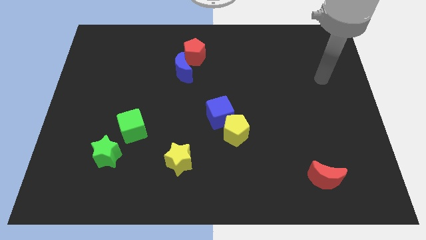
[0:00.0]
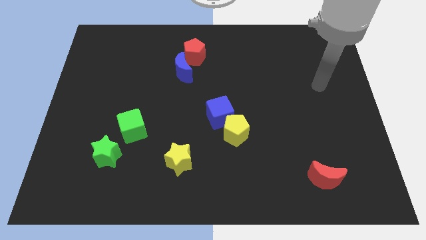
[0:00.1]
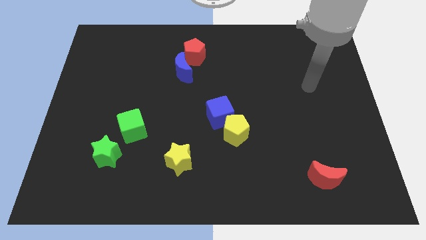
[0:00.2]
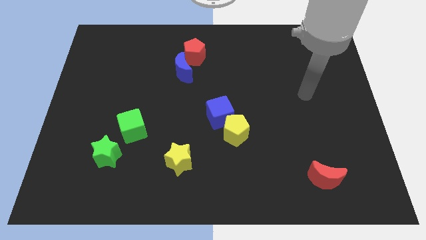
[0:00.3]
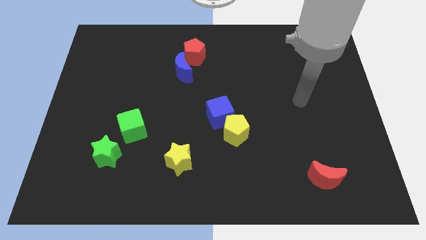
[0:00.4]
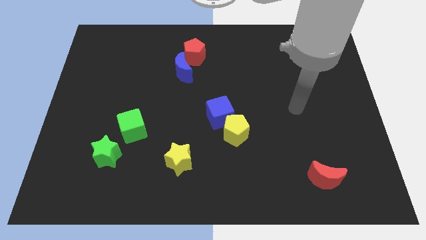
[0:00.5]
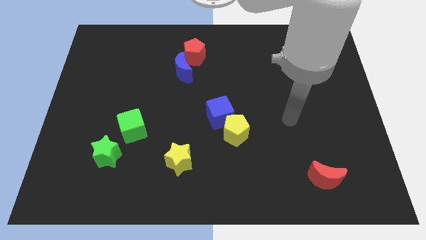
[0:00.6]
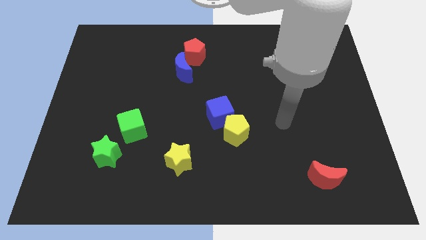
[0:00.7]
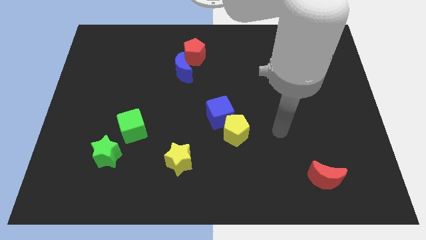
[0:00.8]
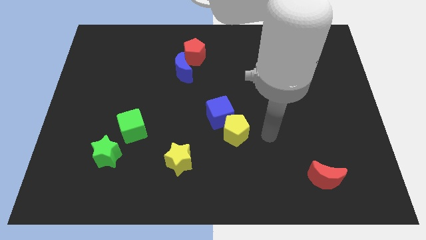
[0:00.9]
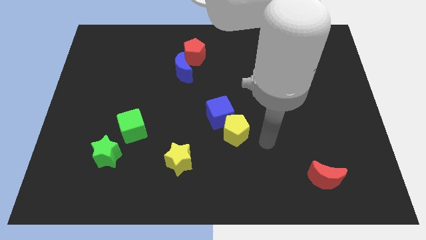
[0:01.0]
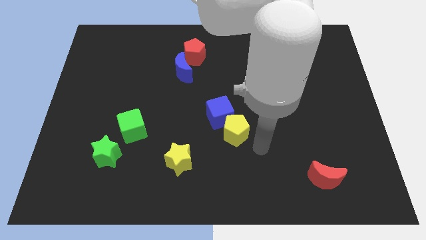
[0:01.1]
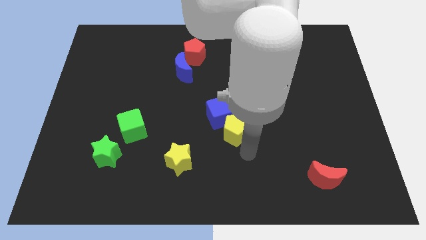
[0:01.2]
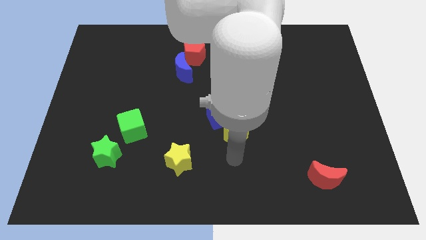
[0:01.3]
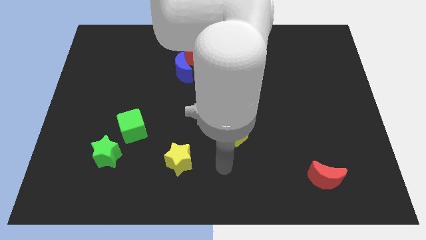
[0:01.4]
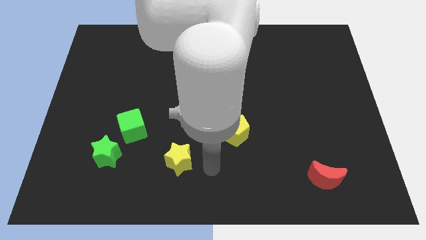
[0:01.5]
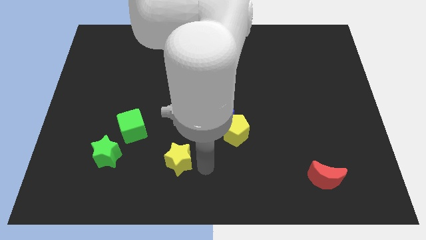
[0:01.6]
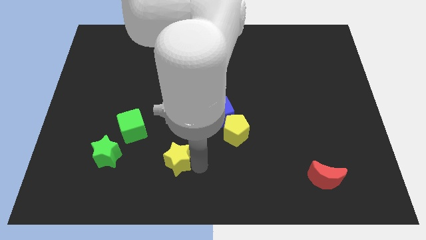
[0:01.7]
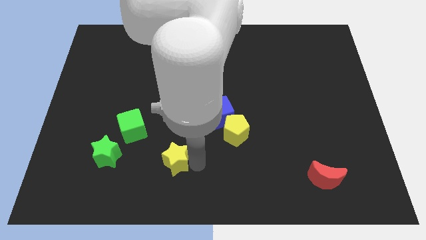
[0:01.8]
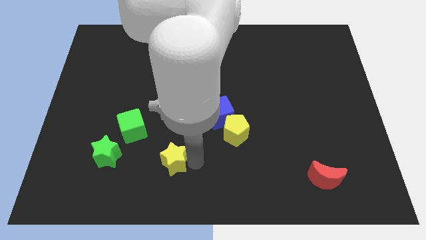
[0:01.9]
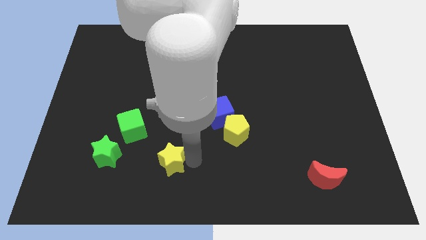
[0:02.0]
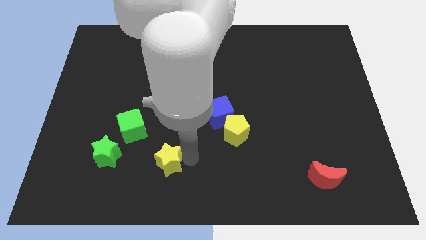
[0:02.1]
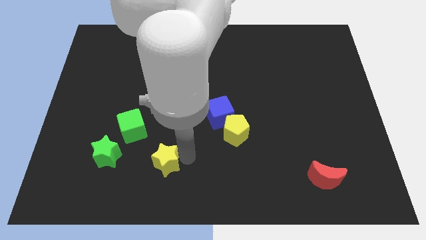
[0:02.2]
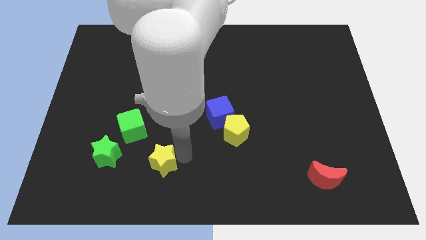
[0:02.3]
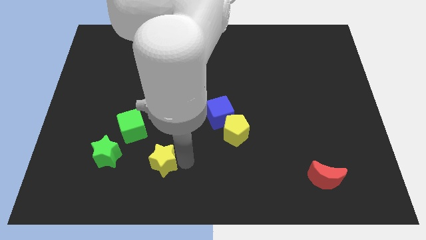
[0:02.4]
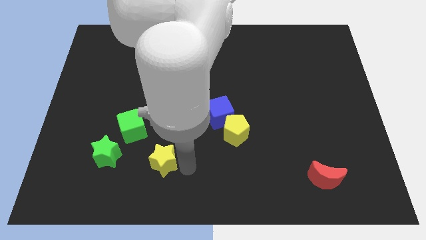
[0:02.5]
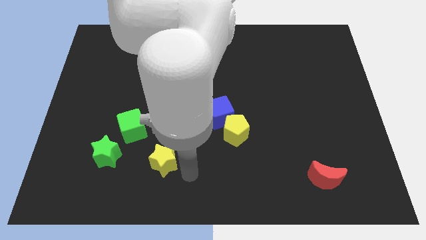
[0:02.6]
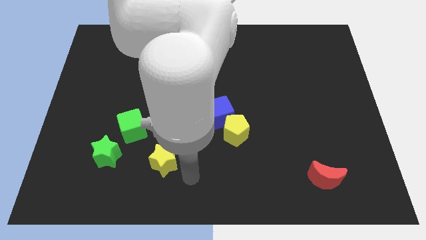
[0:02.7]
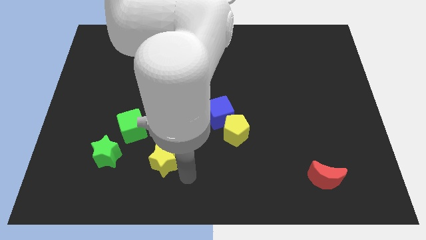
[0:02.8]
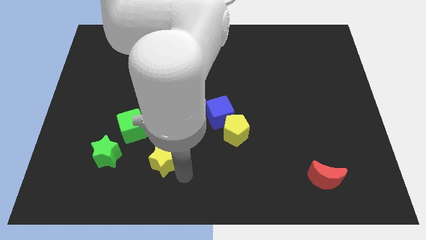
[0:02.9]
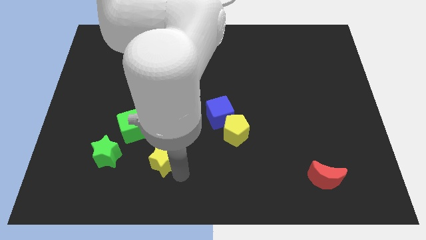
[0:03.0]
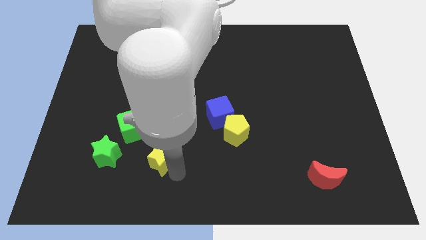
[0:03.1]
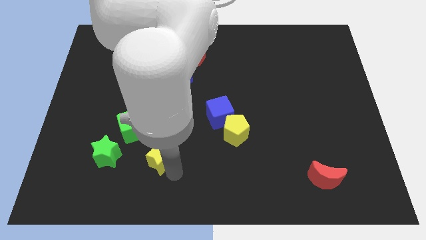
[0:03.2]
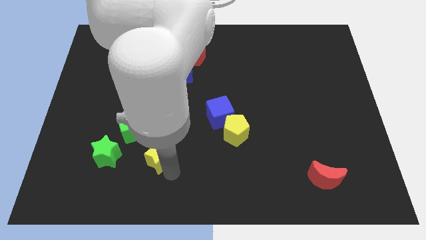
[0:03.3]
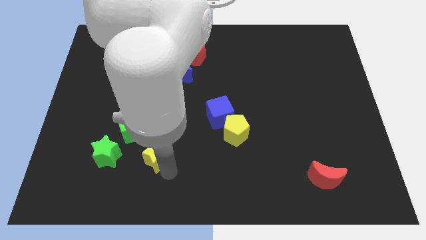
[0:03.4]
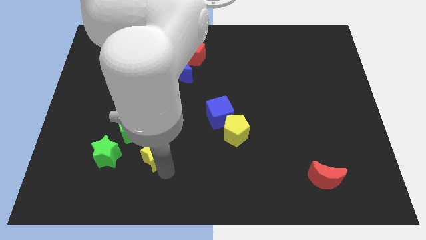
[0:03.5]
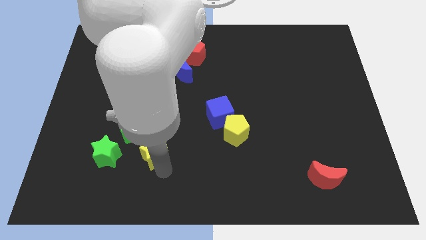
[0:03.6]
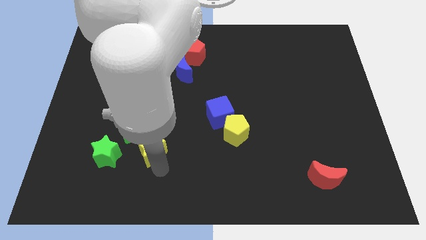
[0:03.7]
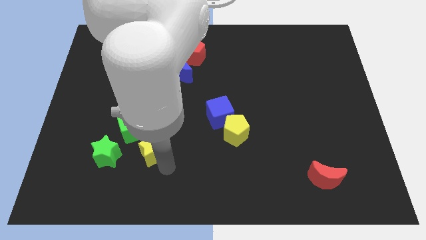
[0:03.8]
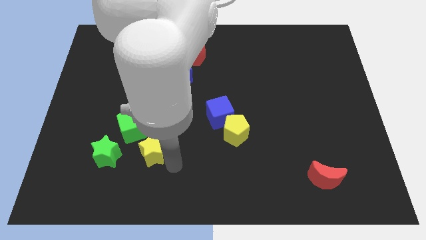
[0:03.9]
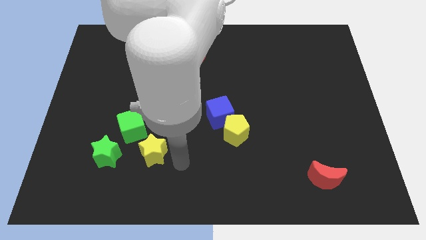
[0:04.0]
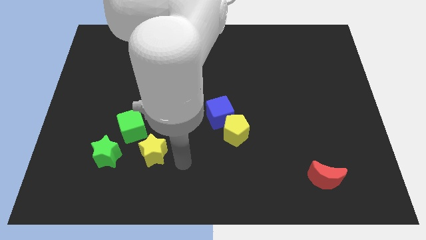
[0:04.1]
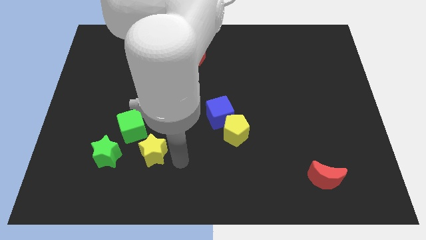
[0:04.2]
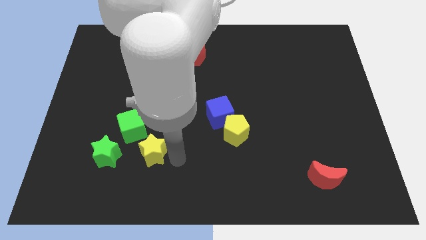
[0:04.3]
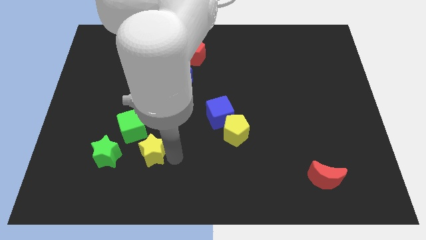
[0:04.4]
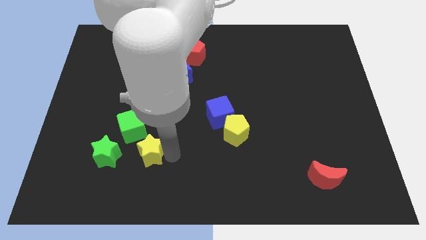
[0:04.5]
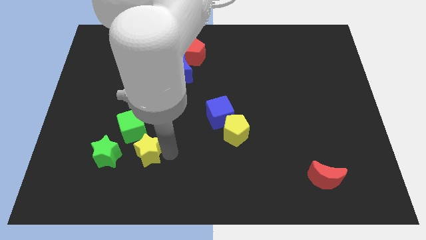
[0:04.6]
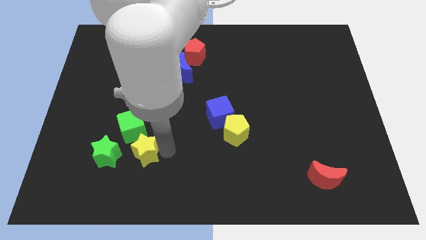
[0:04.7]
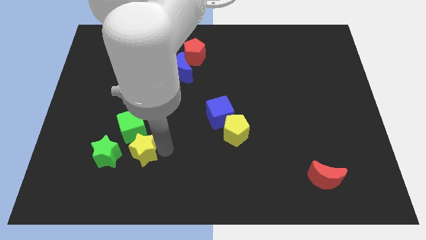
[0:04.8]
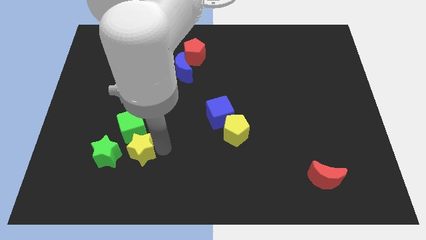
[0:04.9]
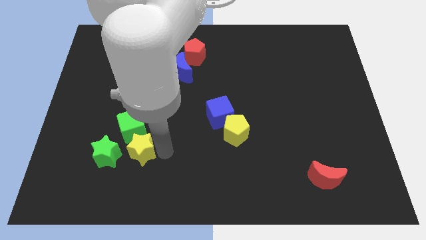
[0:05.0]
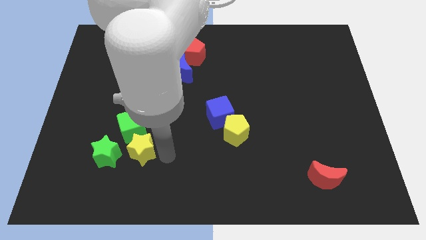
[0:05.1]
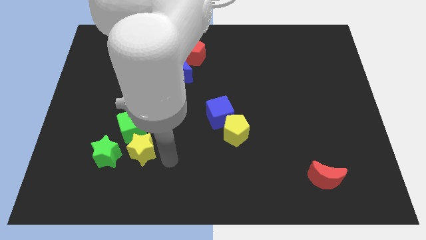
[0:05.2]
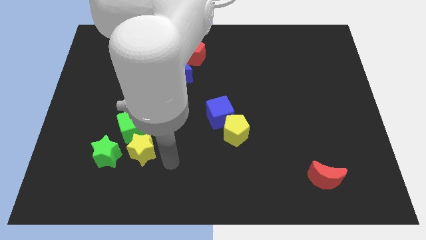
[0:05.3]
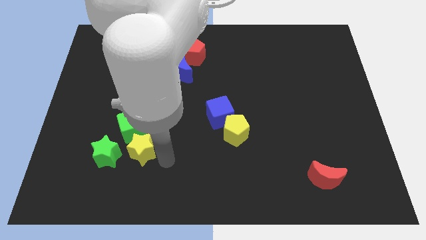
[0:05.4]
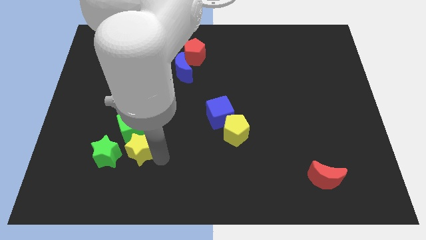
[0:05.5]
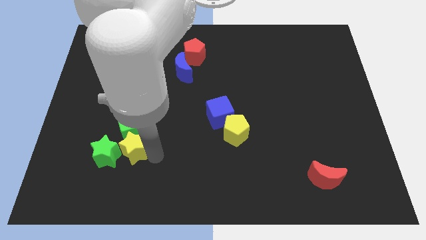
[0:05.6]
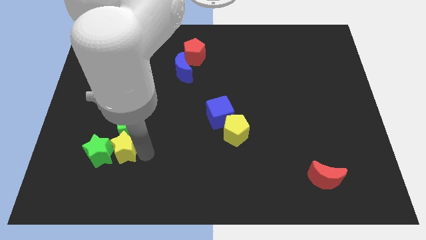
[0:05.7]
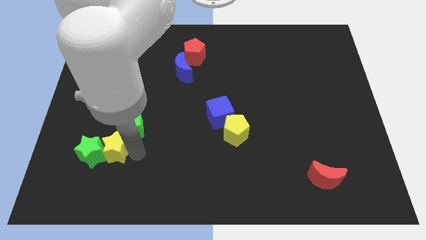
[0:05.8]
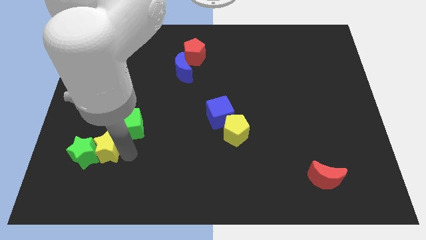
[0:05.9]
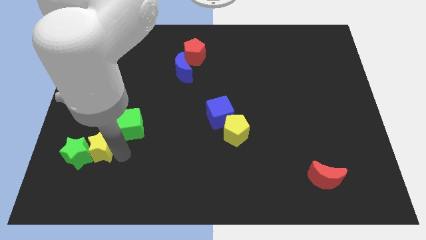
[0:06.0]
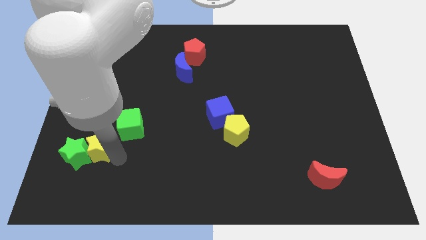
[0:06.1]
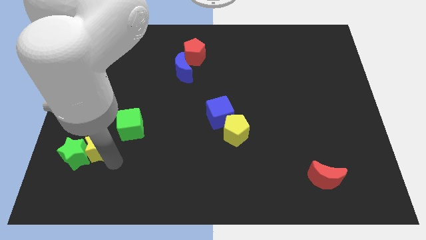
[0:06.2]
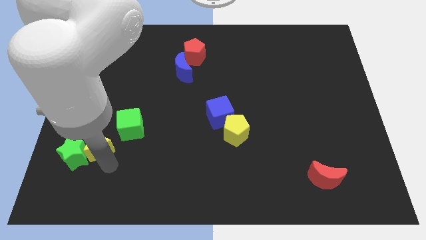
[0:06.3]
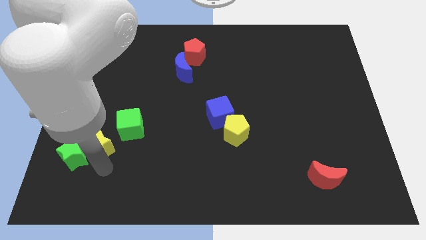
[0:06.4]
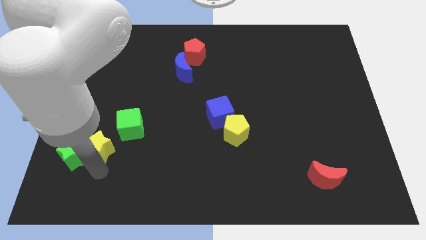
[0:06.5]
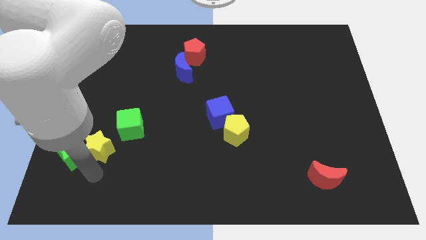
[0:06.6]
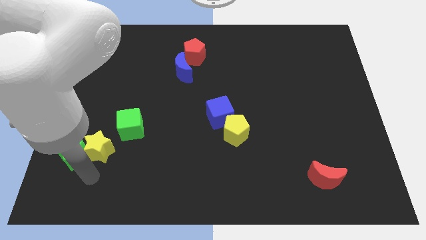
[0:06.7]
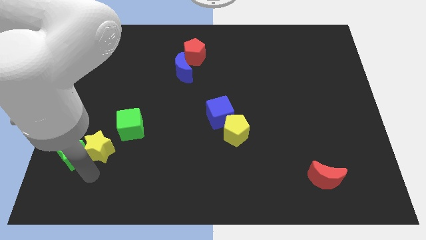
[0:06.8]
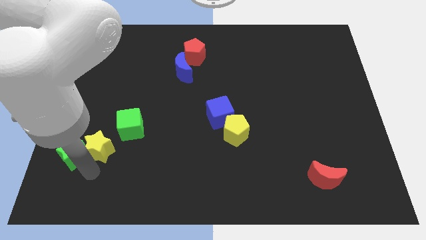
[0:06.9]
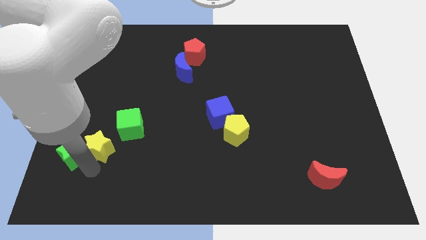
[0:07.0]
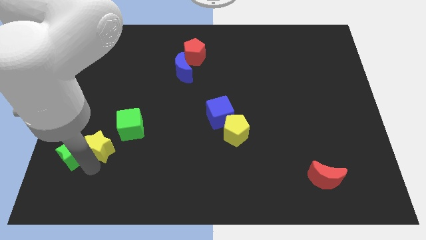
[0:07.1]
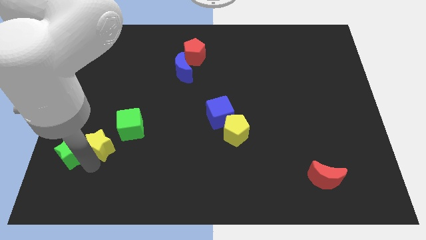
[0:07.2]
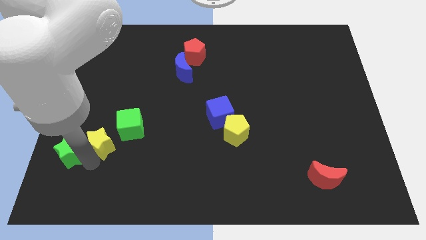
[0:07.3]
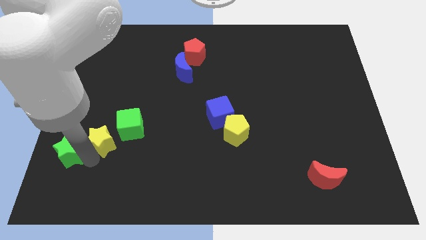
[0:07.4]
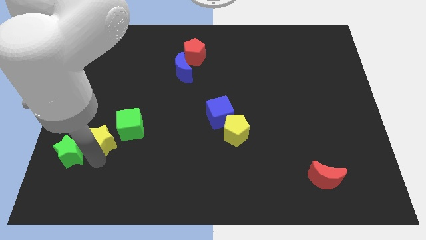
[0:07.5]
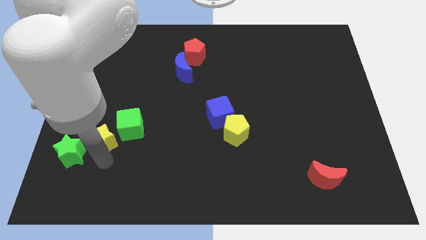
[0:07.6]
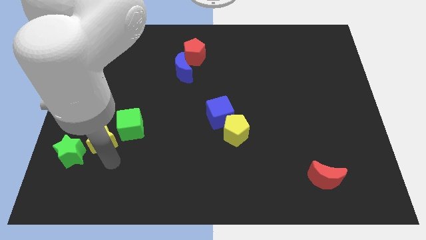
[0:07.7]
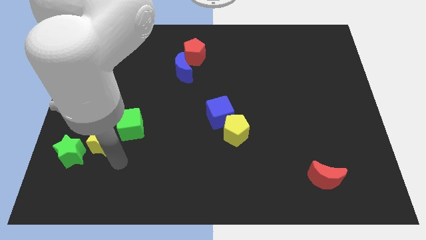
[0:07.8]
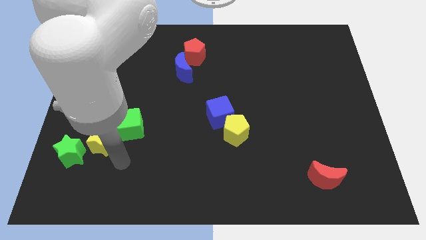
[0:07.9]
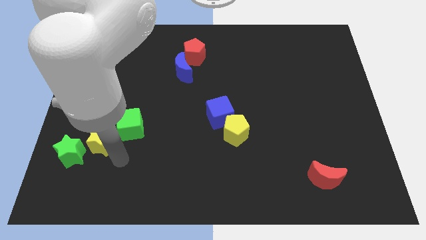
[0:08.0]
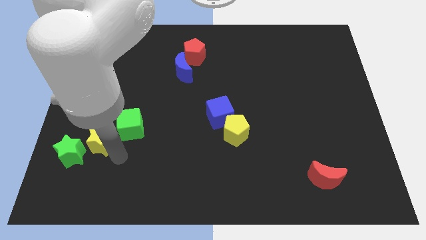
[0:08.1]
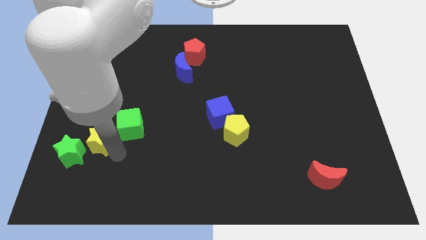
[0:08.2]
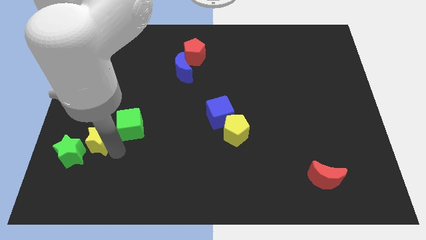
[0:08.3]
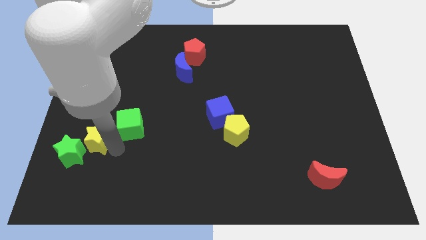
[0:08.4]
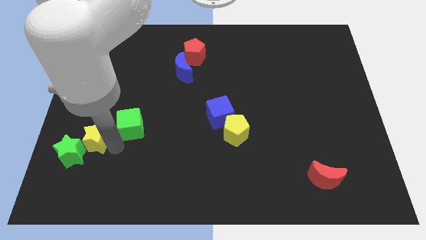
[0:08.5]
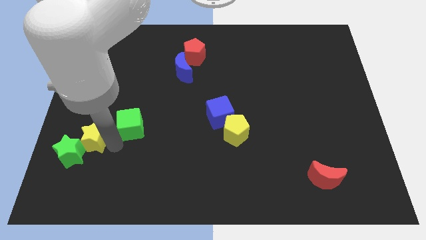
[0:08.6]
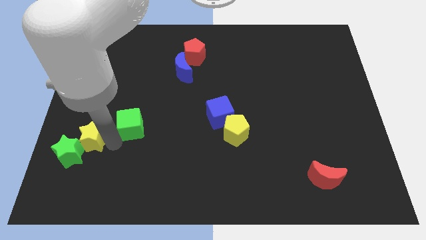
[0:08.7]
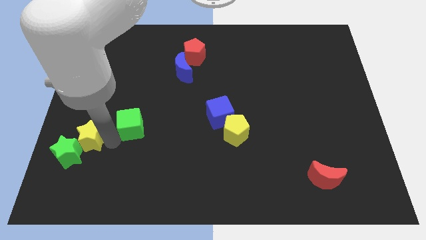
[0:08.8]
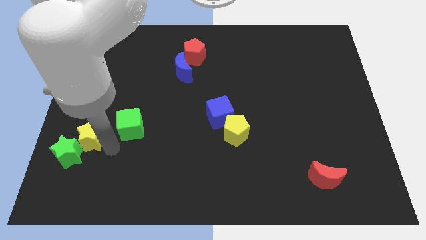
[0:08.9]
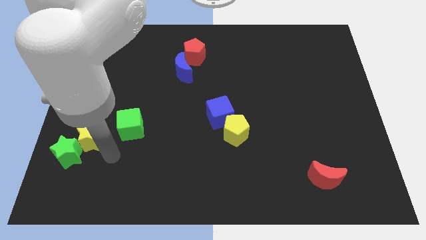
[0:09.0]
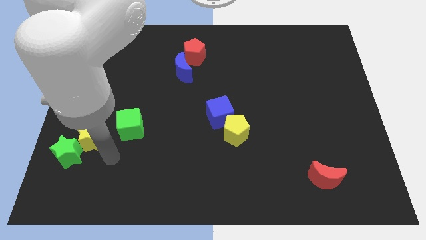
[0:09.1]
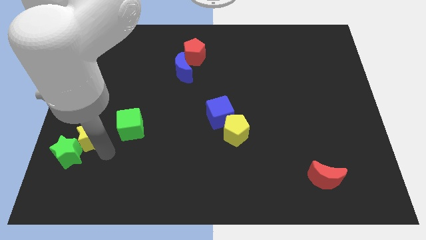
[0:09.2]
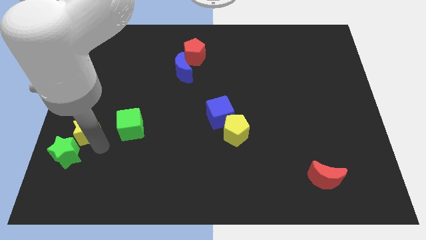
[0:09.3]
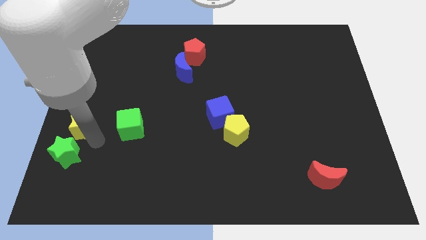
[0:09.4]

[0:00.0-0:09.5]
put the yellow star to the left side
